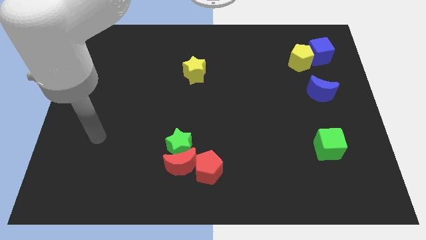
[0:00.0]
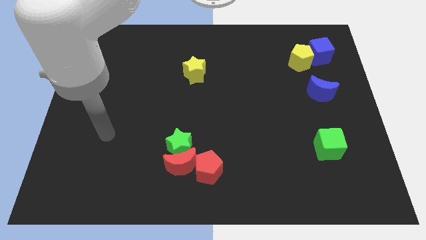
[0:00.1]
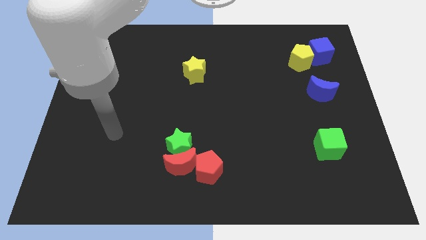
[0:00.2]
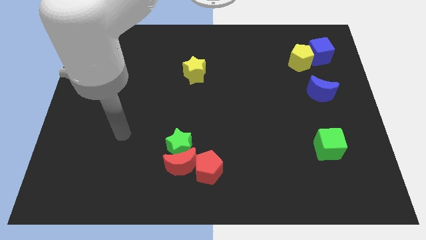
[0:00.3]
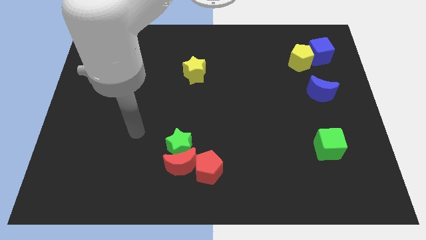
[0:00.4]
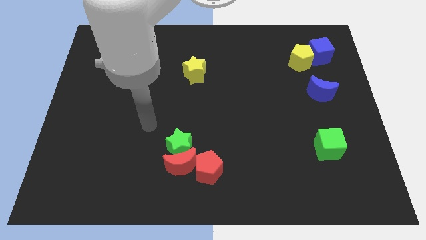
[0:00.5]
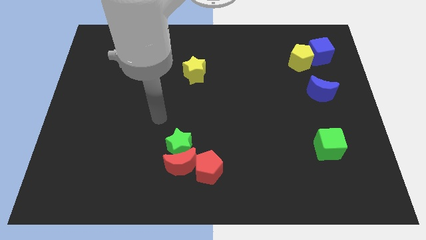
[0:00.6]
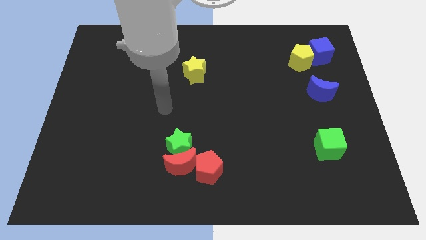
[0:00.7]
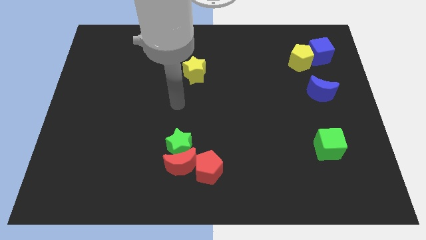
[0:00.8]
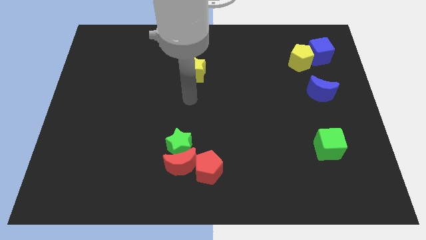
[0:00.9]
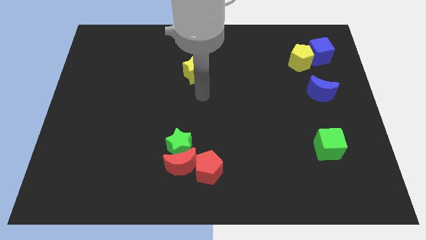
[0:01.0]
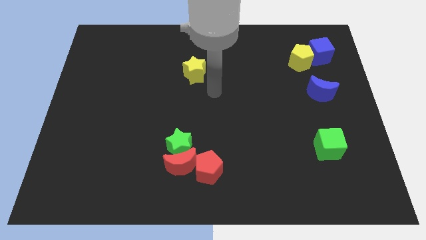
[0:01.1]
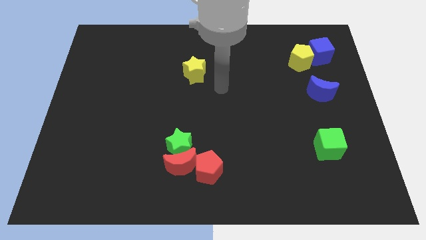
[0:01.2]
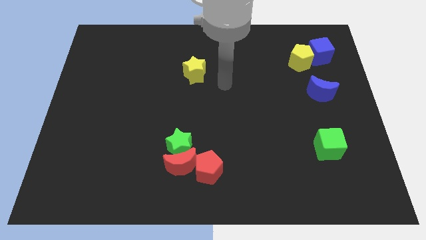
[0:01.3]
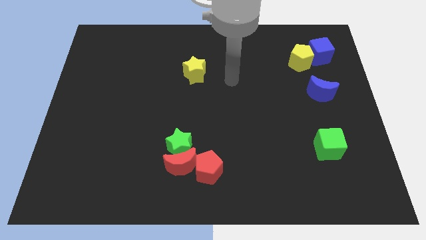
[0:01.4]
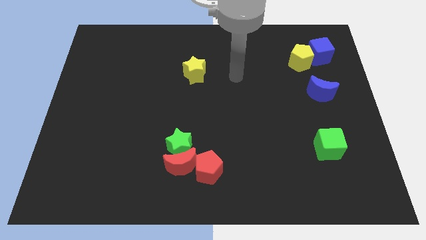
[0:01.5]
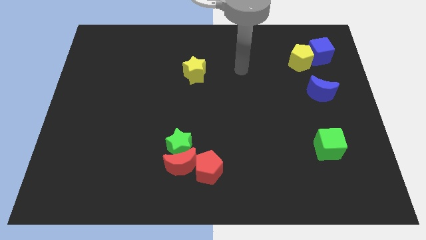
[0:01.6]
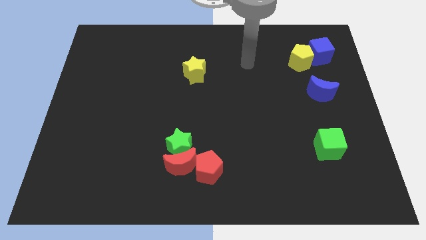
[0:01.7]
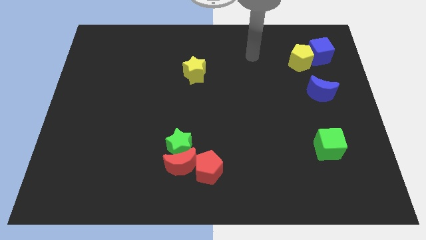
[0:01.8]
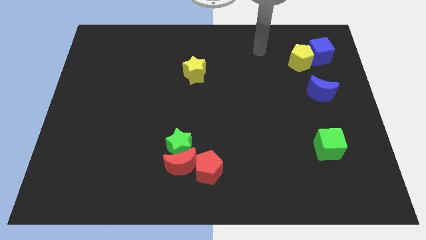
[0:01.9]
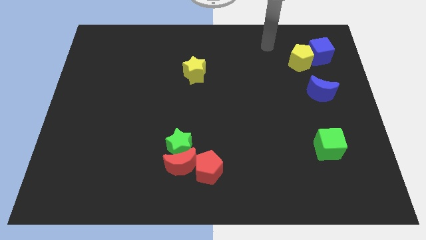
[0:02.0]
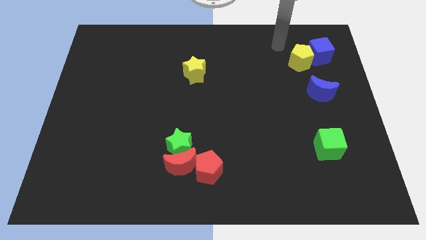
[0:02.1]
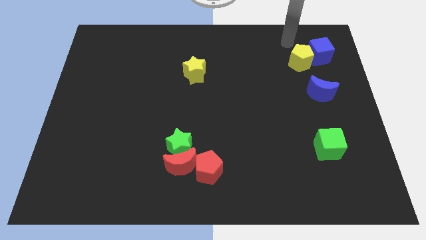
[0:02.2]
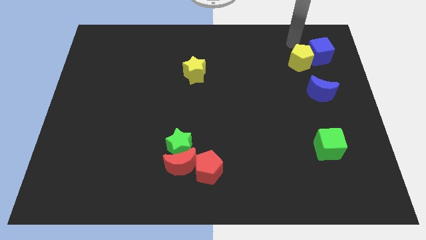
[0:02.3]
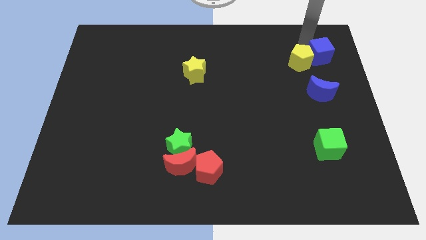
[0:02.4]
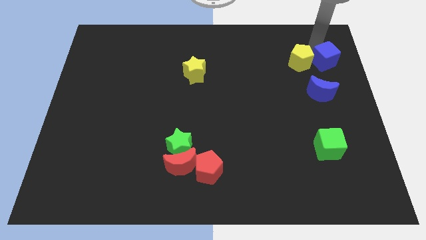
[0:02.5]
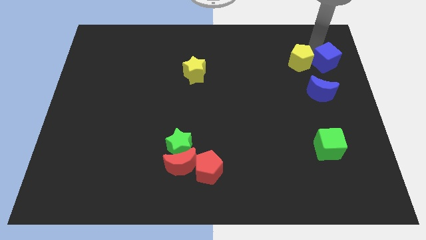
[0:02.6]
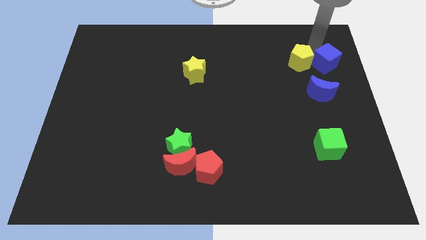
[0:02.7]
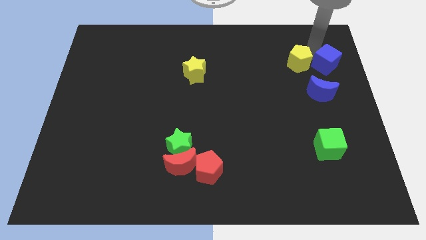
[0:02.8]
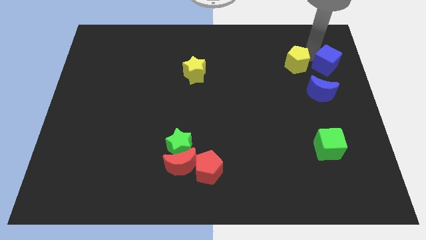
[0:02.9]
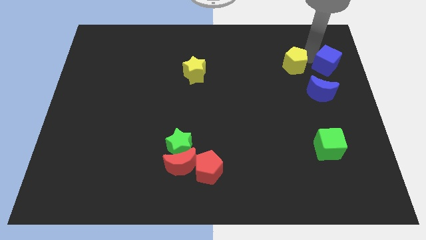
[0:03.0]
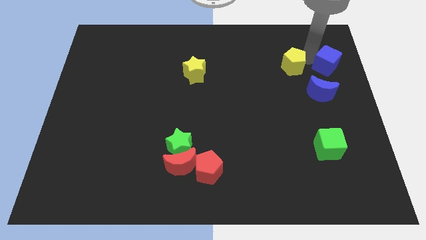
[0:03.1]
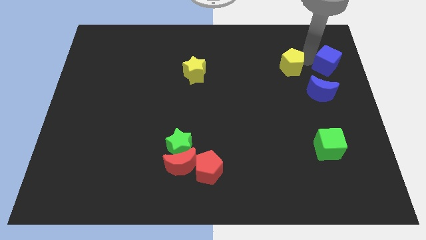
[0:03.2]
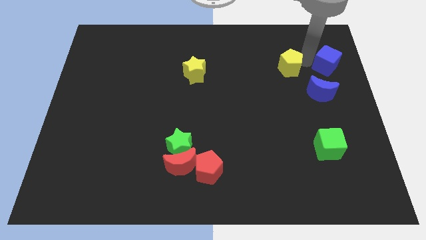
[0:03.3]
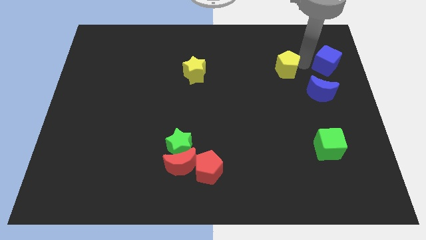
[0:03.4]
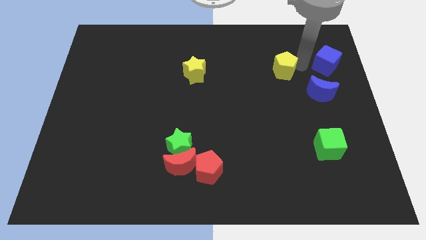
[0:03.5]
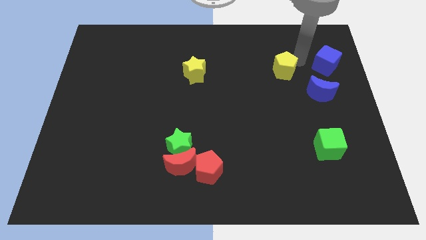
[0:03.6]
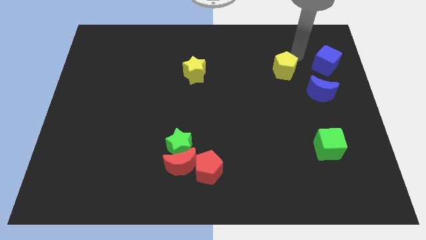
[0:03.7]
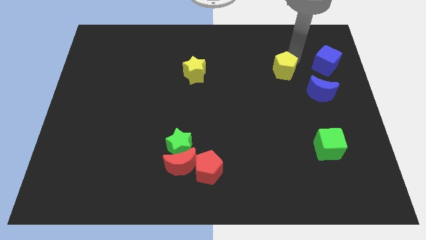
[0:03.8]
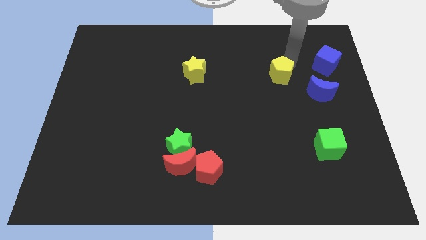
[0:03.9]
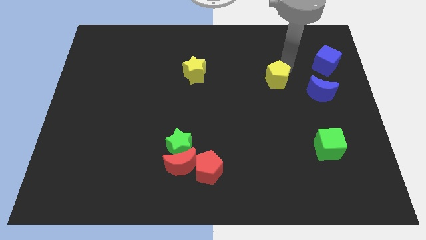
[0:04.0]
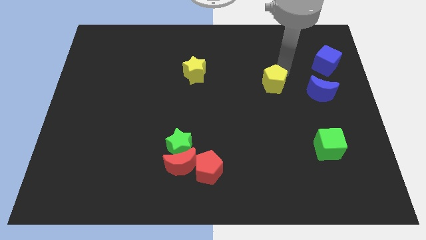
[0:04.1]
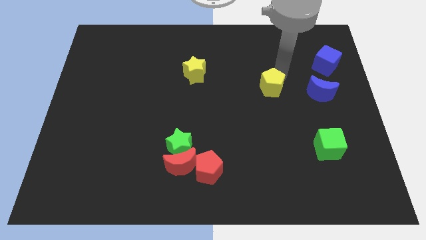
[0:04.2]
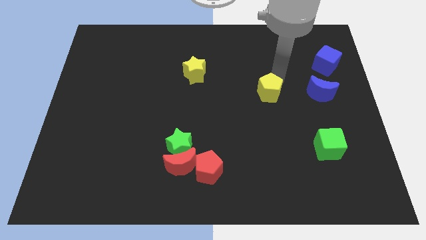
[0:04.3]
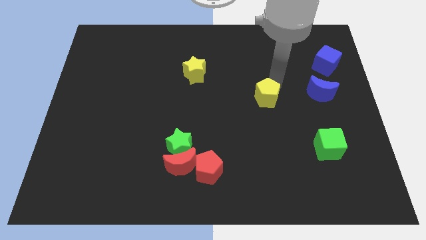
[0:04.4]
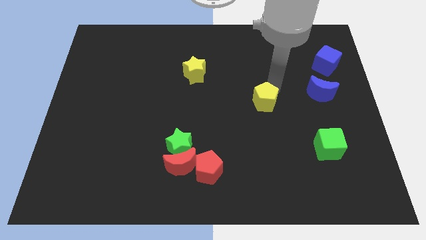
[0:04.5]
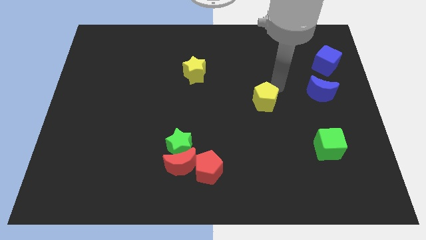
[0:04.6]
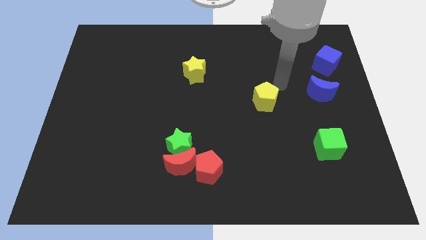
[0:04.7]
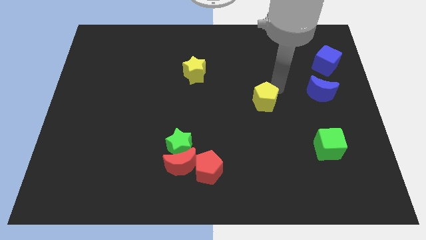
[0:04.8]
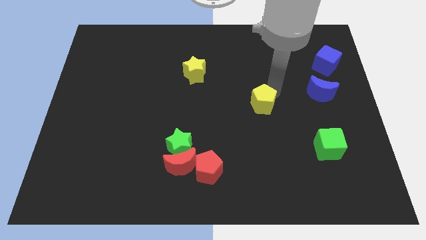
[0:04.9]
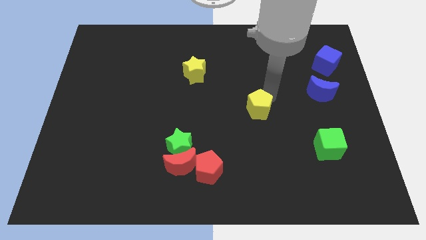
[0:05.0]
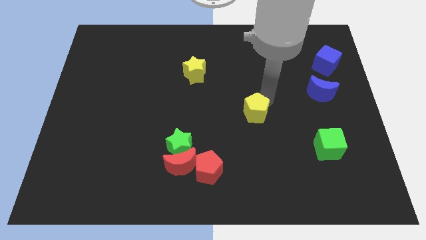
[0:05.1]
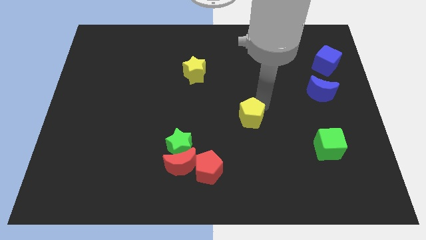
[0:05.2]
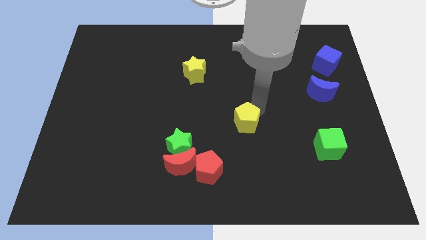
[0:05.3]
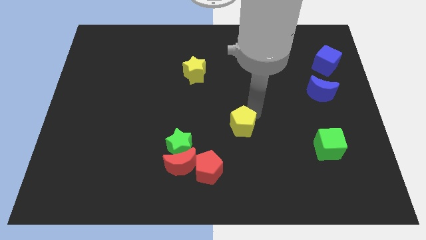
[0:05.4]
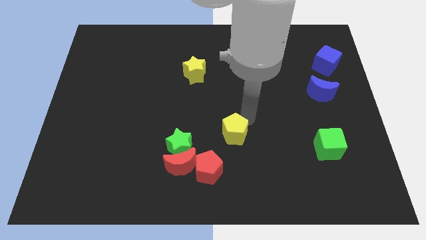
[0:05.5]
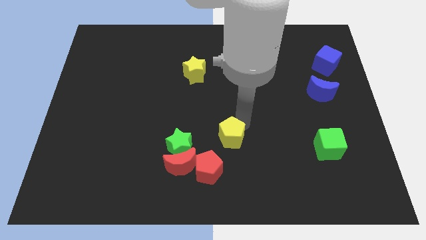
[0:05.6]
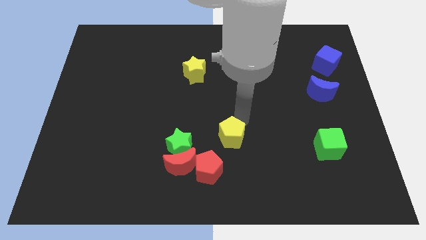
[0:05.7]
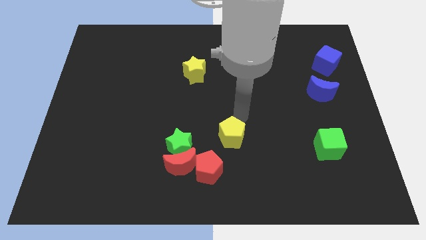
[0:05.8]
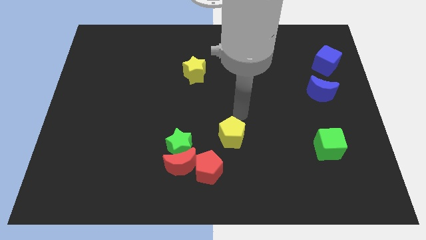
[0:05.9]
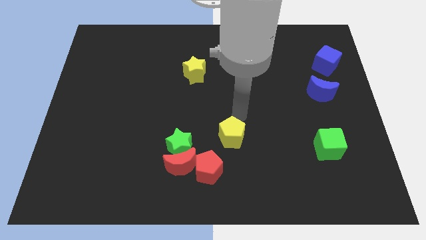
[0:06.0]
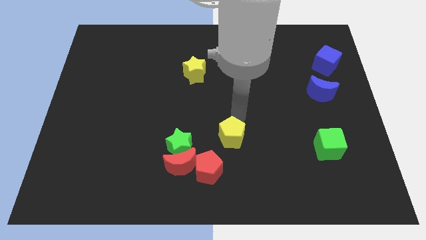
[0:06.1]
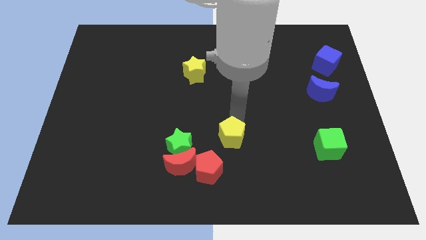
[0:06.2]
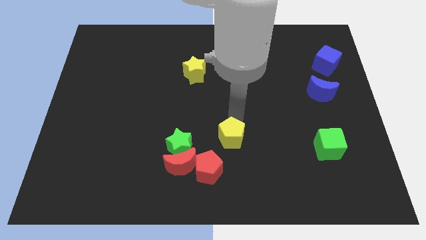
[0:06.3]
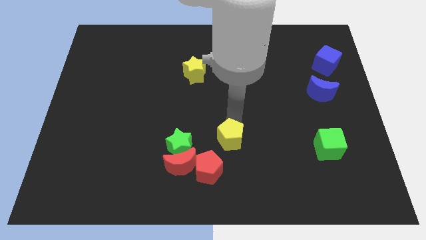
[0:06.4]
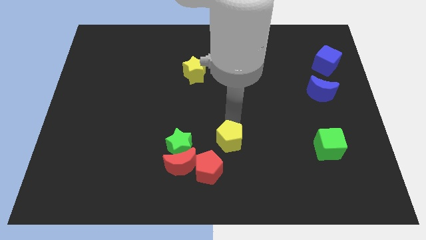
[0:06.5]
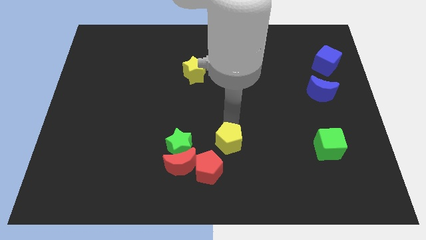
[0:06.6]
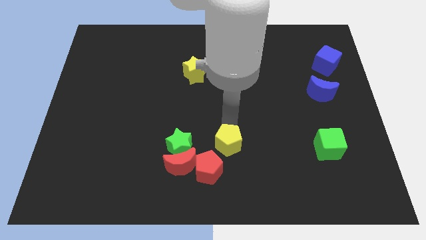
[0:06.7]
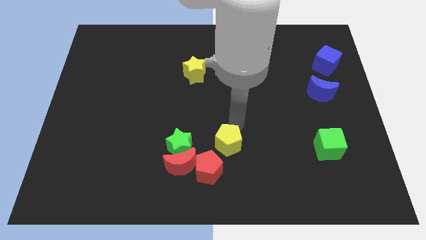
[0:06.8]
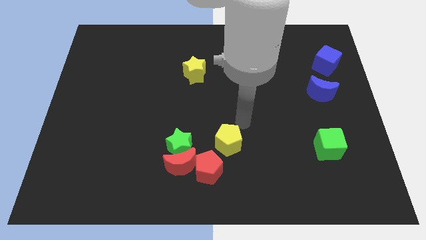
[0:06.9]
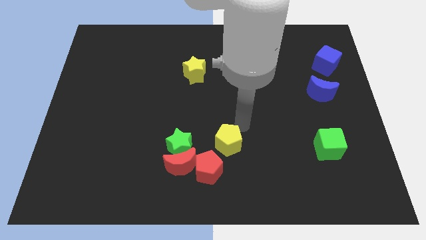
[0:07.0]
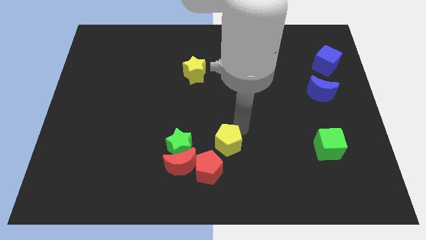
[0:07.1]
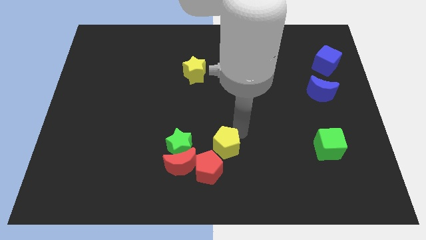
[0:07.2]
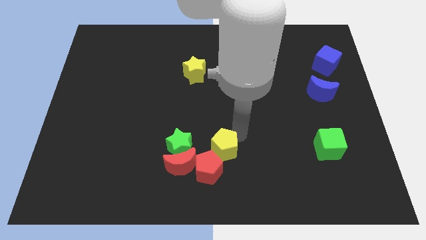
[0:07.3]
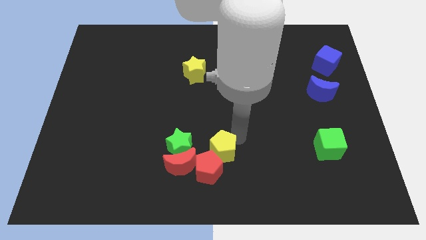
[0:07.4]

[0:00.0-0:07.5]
put the yellow pentagon close to the red pentagon
